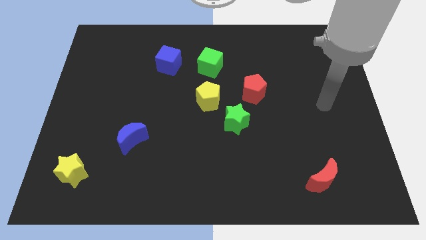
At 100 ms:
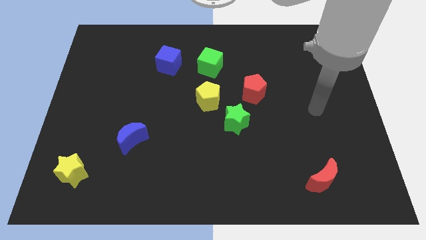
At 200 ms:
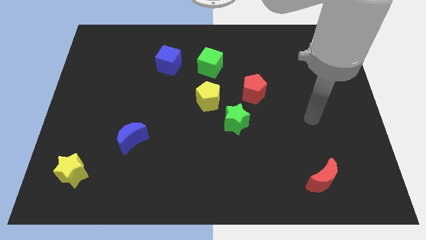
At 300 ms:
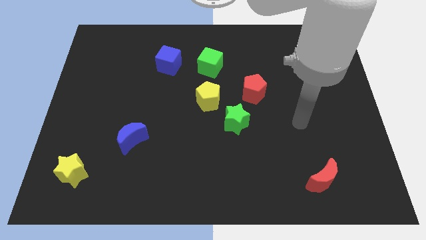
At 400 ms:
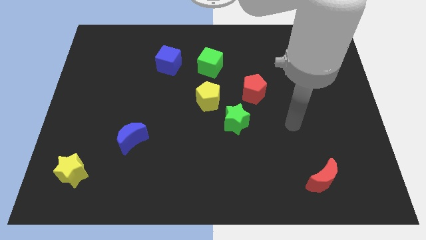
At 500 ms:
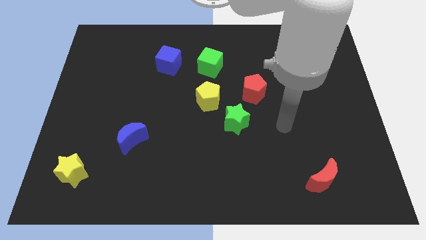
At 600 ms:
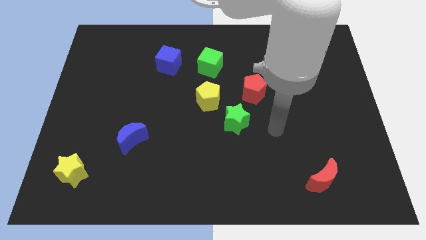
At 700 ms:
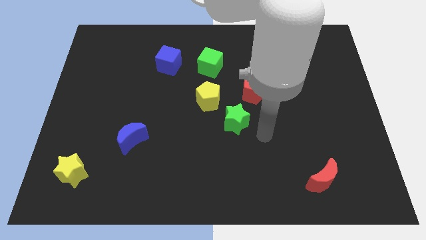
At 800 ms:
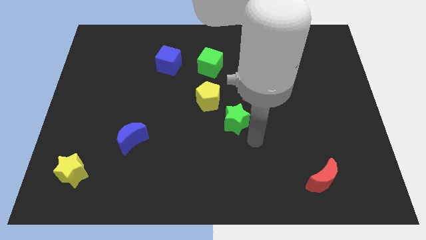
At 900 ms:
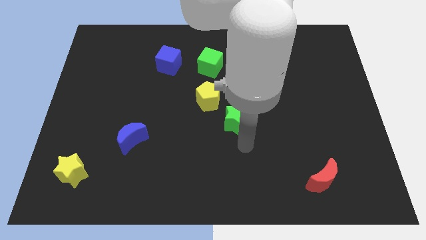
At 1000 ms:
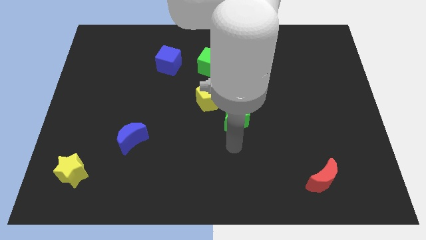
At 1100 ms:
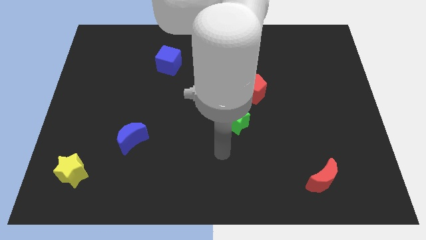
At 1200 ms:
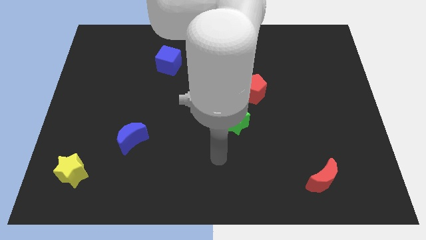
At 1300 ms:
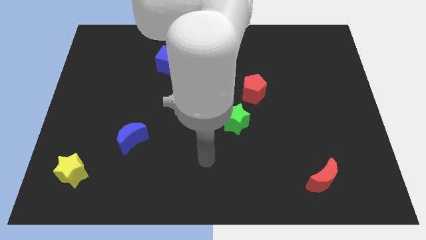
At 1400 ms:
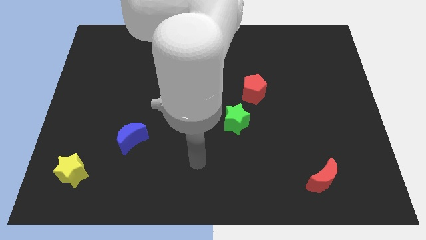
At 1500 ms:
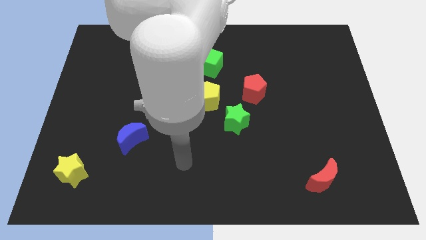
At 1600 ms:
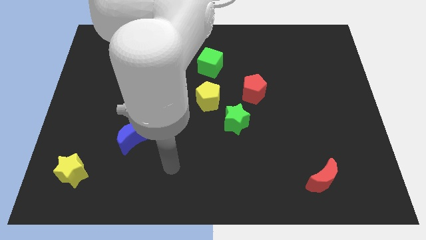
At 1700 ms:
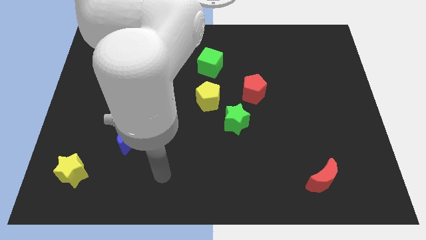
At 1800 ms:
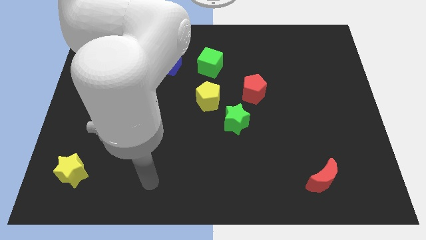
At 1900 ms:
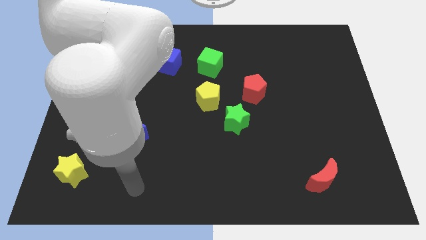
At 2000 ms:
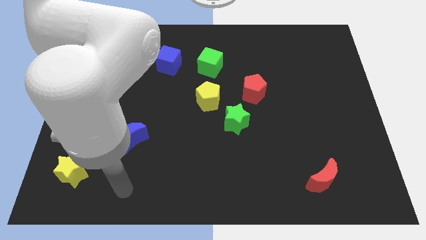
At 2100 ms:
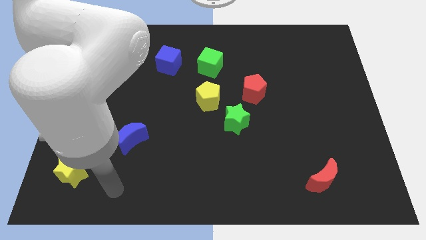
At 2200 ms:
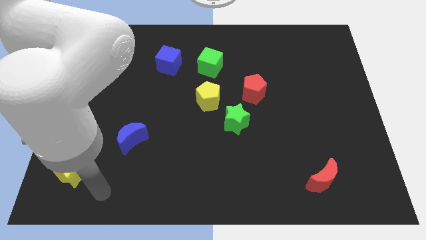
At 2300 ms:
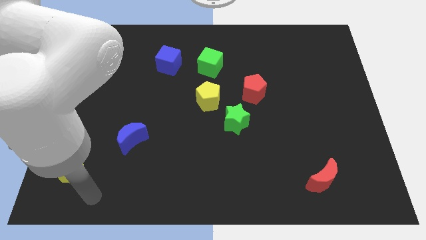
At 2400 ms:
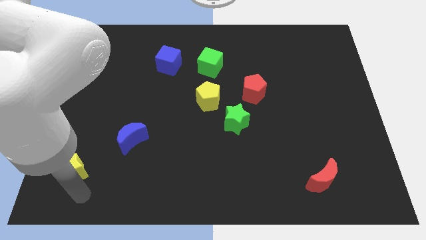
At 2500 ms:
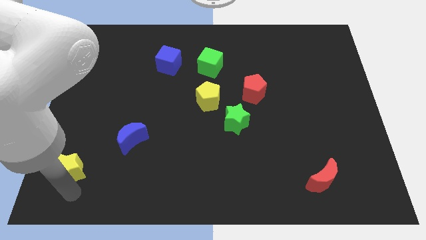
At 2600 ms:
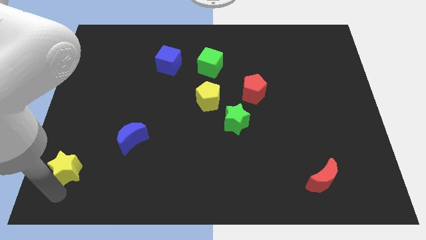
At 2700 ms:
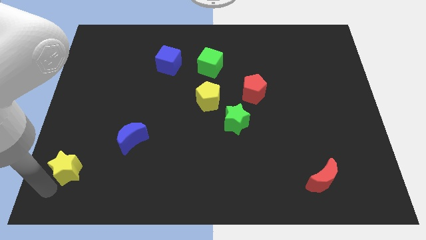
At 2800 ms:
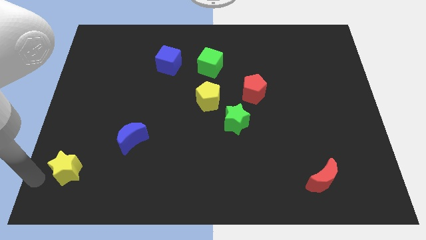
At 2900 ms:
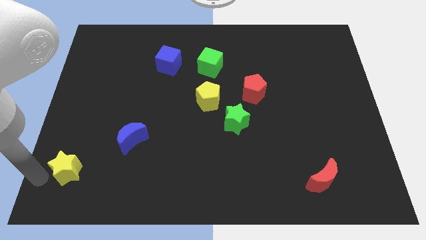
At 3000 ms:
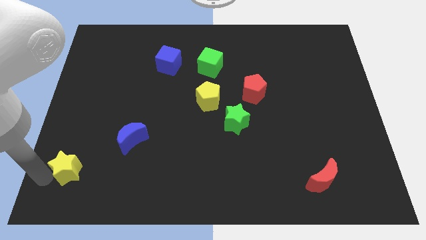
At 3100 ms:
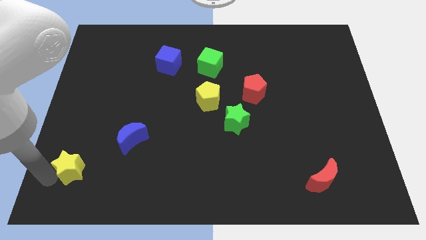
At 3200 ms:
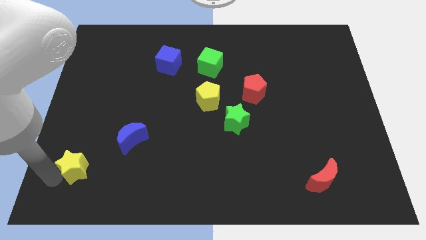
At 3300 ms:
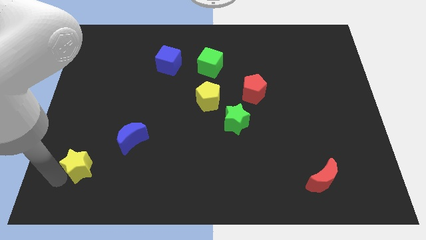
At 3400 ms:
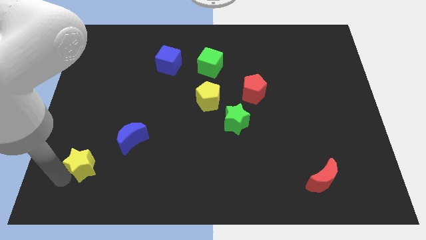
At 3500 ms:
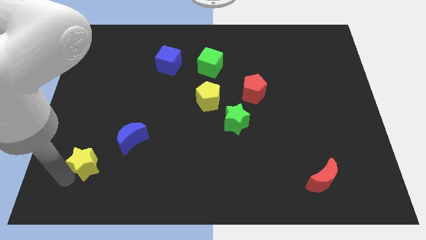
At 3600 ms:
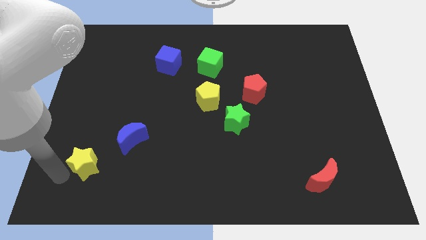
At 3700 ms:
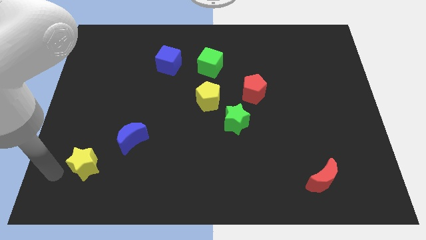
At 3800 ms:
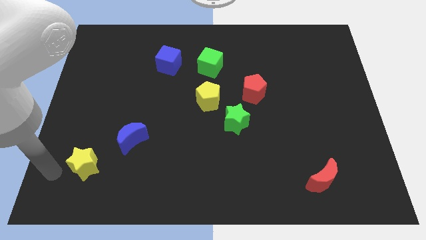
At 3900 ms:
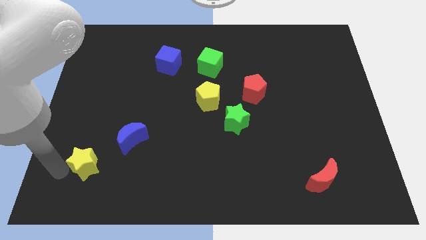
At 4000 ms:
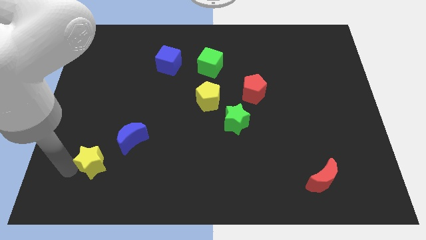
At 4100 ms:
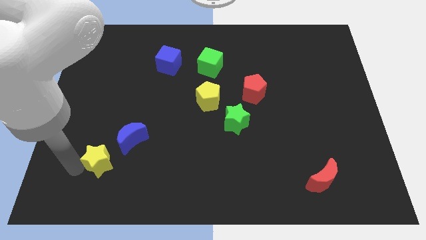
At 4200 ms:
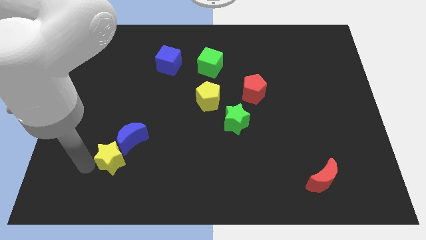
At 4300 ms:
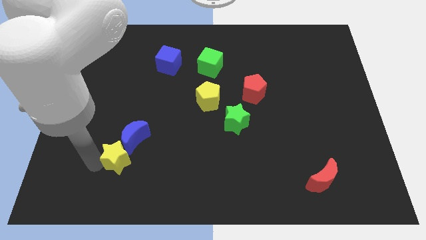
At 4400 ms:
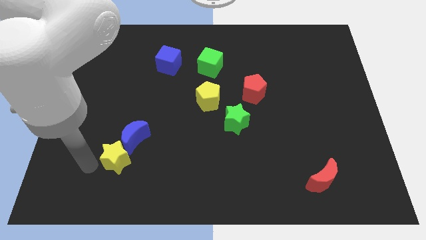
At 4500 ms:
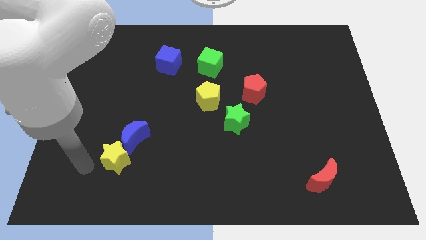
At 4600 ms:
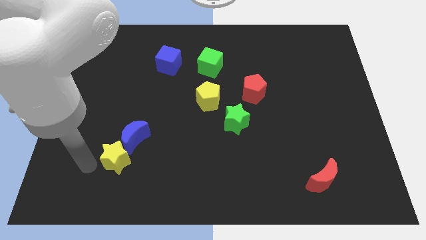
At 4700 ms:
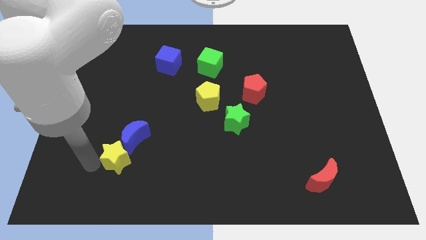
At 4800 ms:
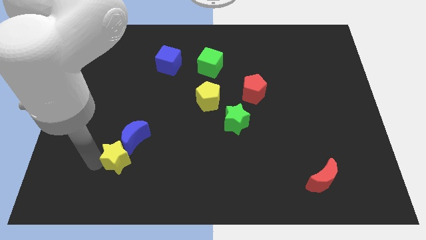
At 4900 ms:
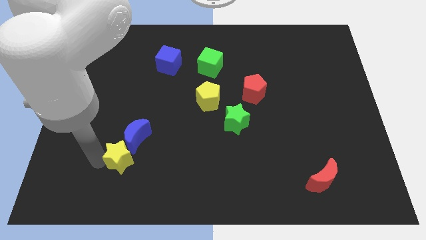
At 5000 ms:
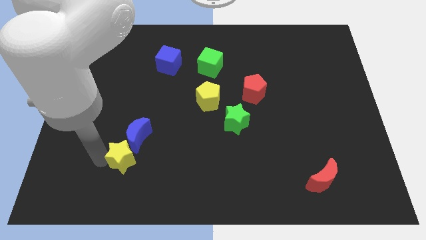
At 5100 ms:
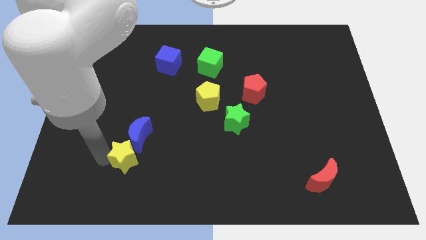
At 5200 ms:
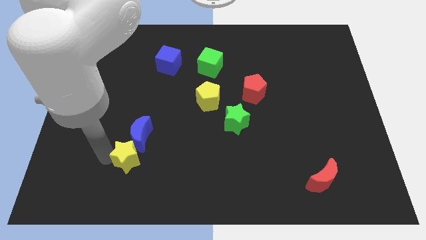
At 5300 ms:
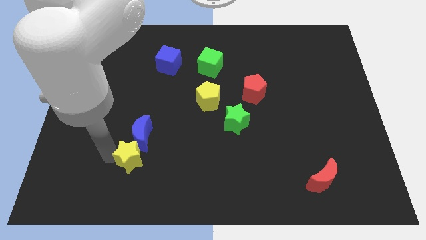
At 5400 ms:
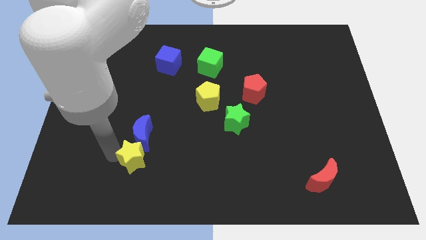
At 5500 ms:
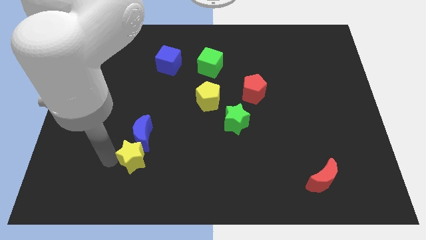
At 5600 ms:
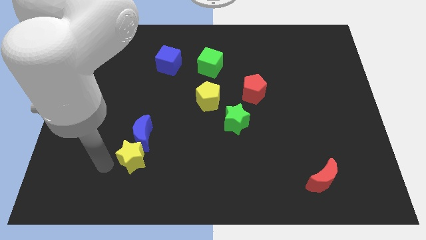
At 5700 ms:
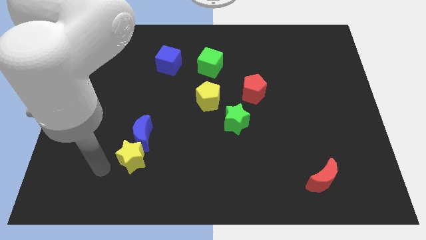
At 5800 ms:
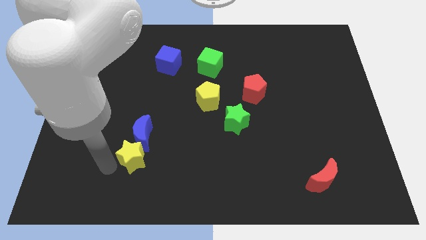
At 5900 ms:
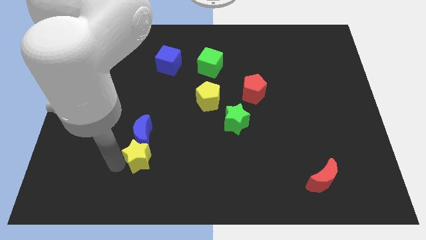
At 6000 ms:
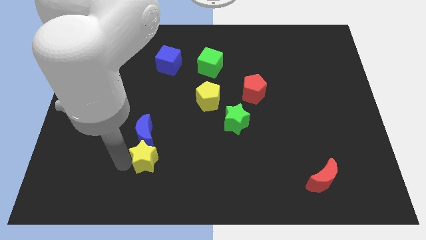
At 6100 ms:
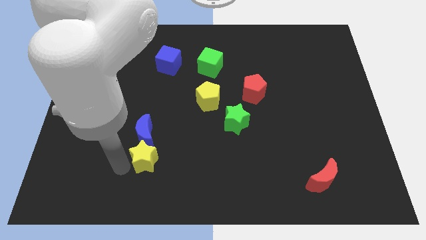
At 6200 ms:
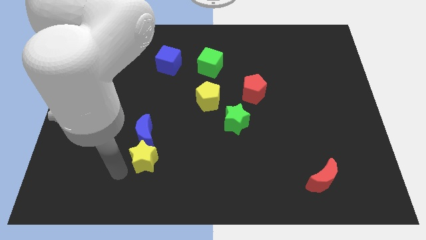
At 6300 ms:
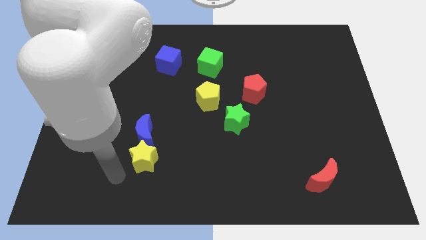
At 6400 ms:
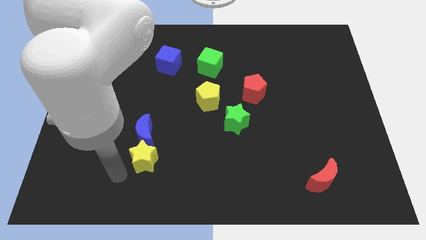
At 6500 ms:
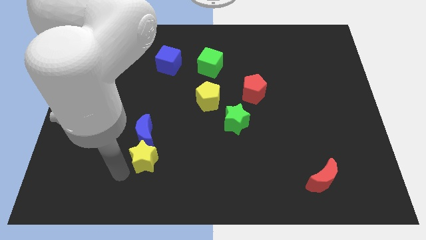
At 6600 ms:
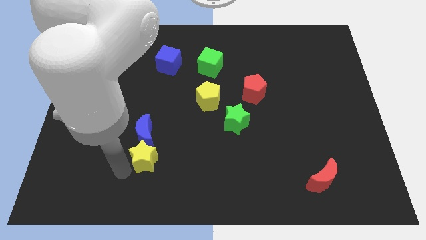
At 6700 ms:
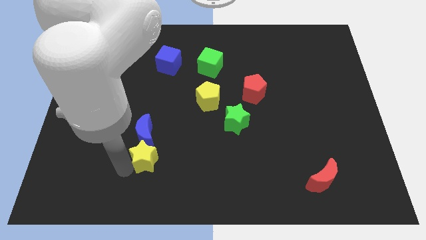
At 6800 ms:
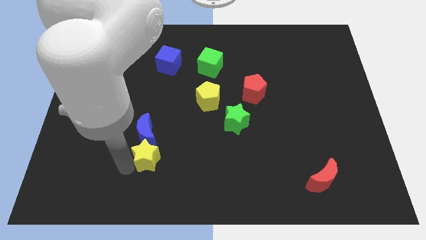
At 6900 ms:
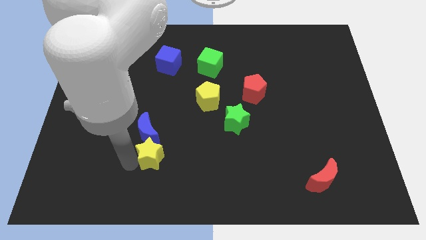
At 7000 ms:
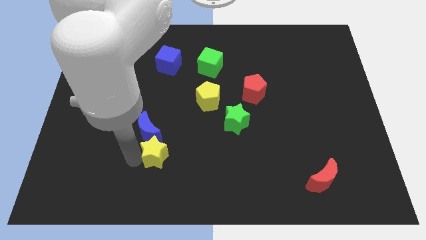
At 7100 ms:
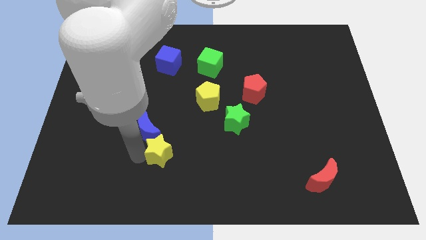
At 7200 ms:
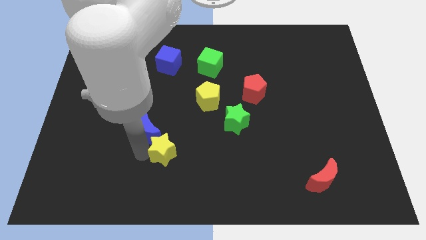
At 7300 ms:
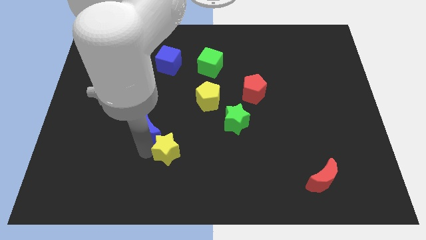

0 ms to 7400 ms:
move the yellow star just right of the blue moon
